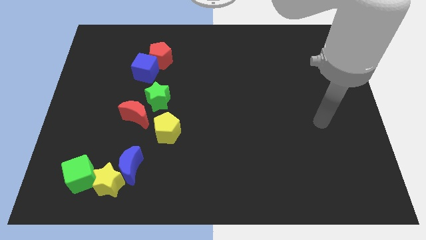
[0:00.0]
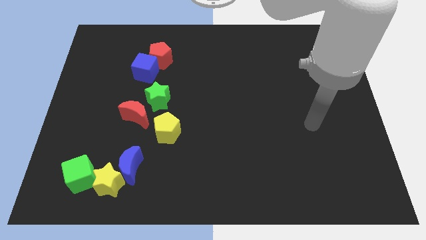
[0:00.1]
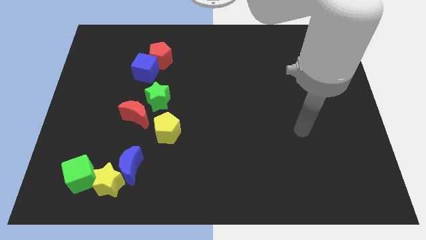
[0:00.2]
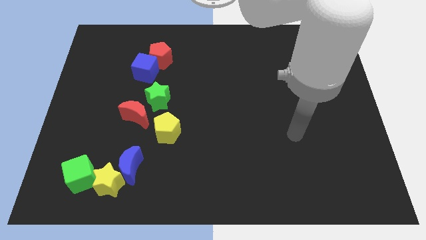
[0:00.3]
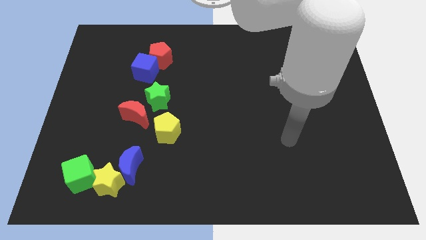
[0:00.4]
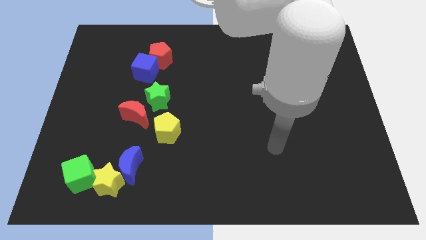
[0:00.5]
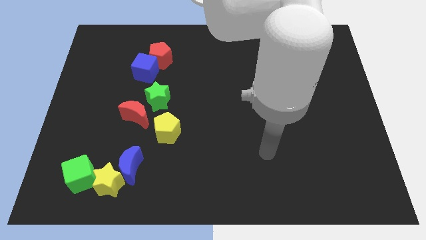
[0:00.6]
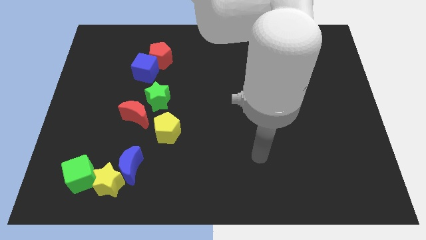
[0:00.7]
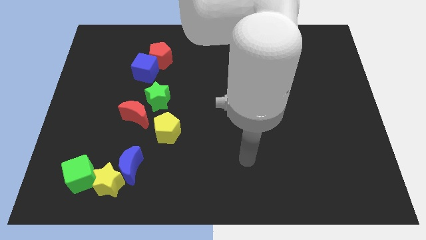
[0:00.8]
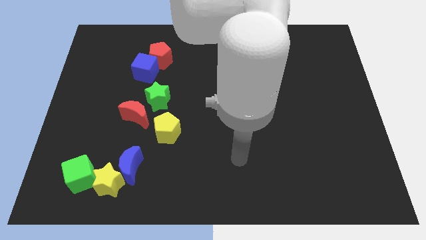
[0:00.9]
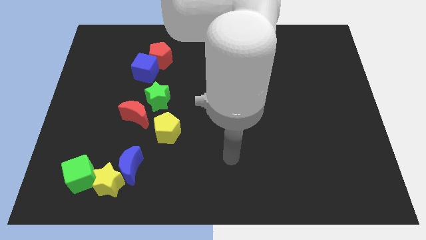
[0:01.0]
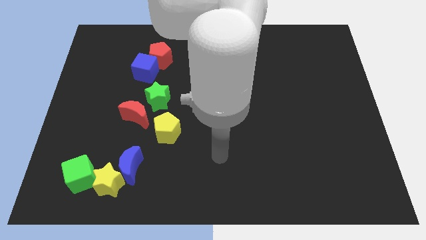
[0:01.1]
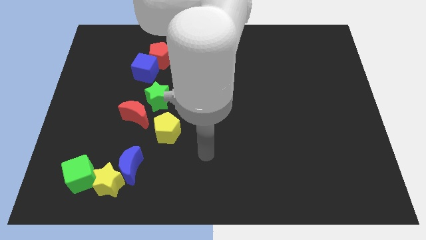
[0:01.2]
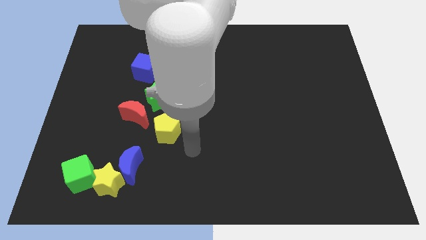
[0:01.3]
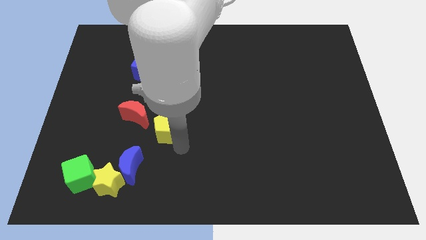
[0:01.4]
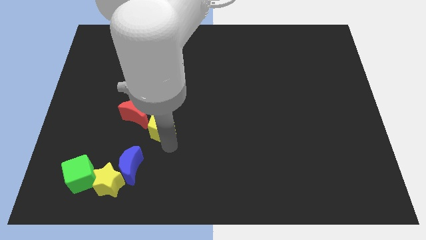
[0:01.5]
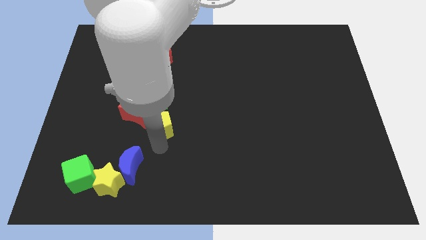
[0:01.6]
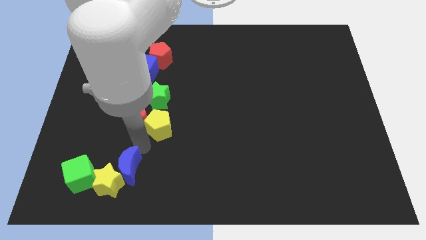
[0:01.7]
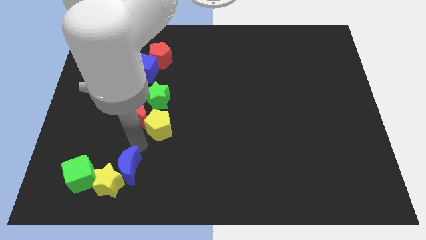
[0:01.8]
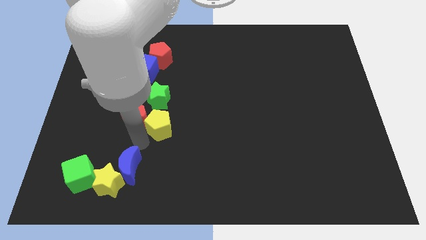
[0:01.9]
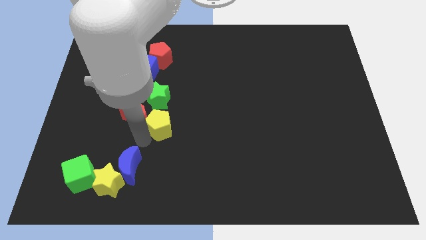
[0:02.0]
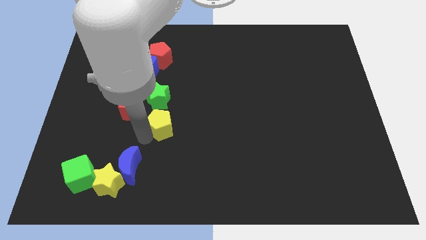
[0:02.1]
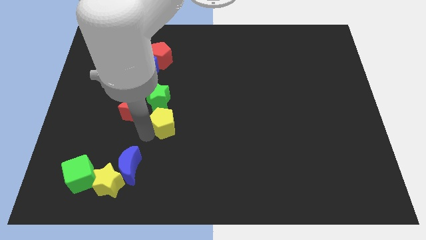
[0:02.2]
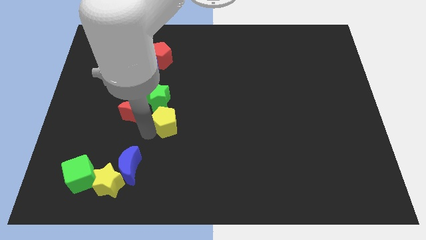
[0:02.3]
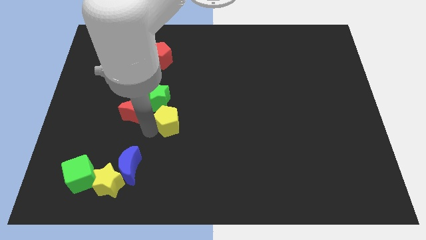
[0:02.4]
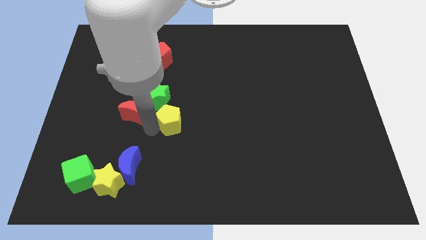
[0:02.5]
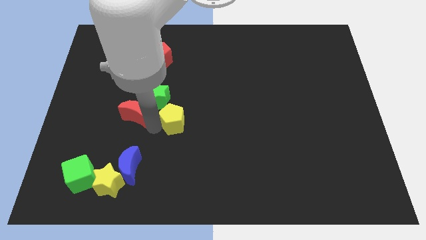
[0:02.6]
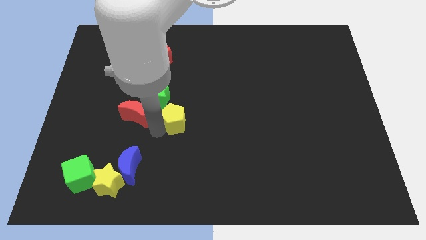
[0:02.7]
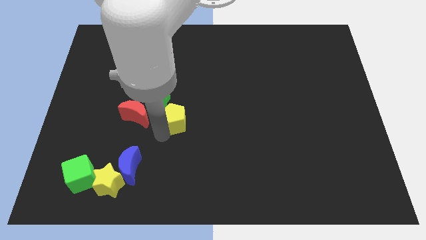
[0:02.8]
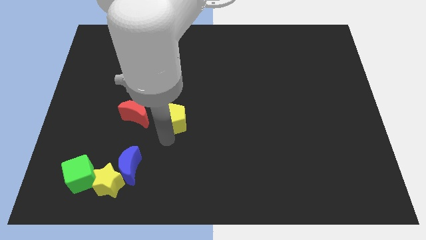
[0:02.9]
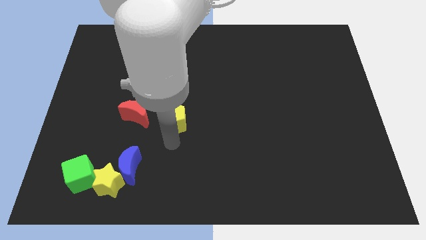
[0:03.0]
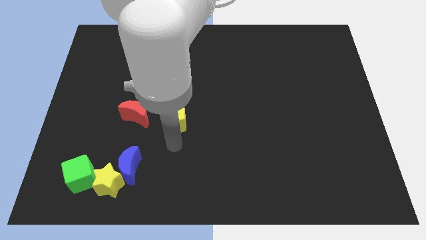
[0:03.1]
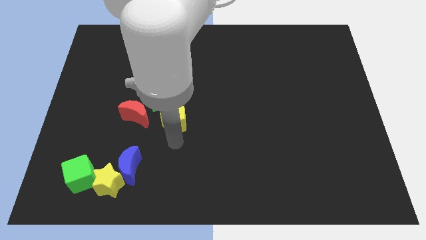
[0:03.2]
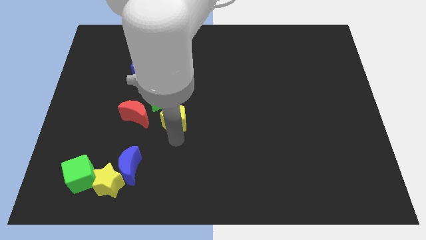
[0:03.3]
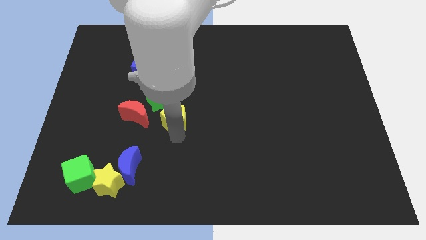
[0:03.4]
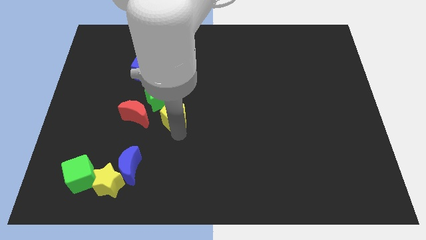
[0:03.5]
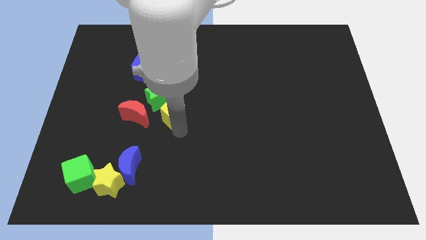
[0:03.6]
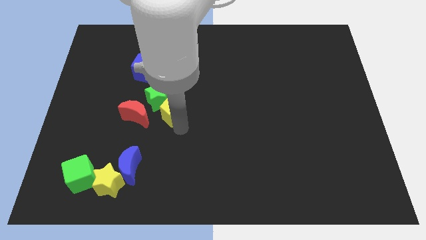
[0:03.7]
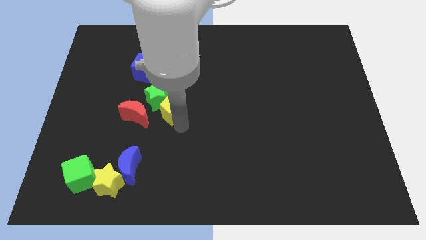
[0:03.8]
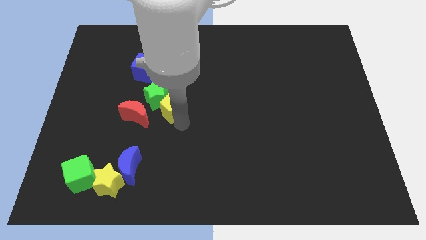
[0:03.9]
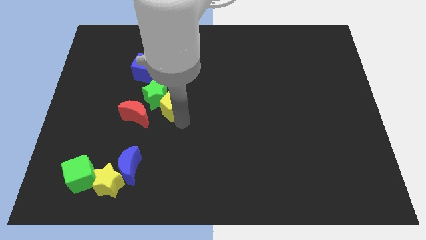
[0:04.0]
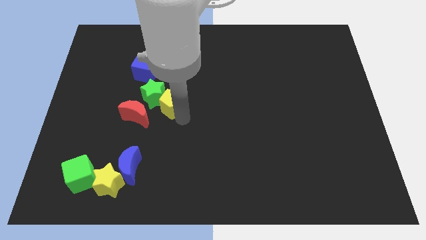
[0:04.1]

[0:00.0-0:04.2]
push the yellow pentagon upwards a little bit

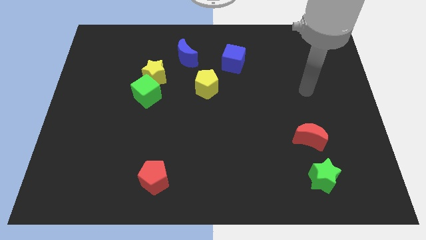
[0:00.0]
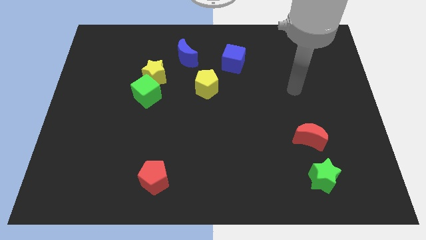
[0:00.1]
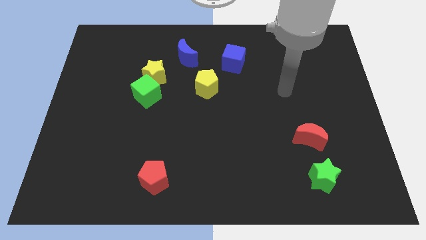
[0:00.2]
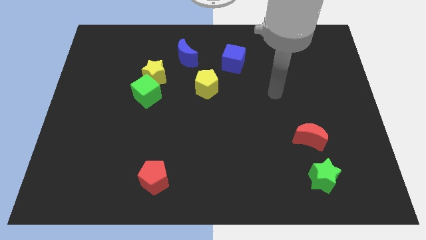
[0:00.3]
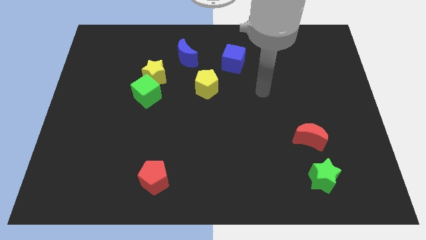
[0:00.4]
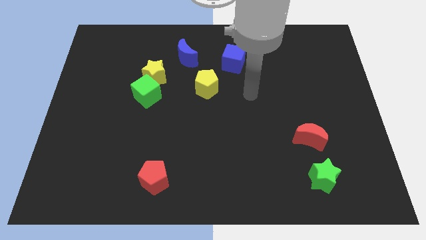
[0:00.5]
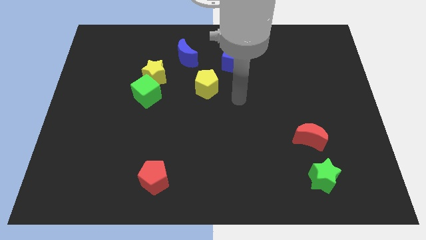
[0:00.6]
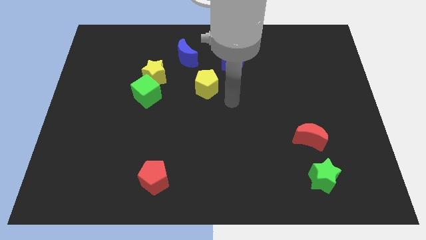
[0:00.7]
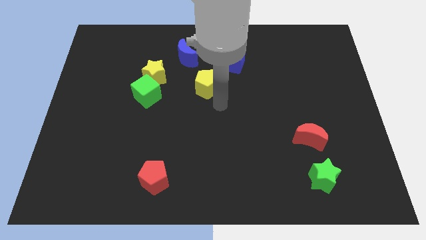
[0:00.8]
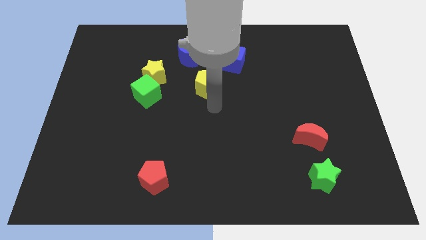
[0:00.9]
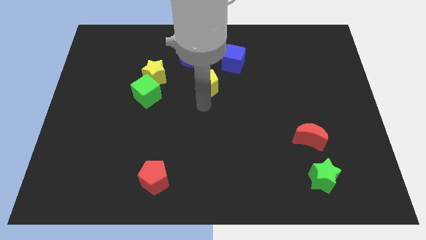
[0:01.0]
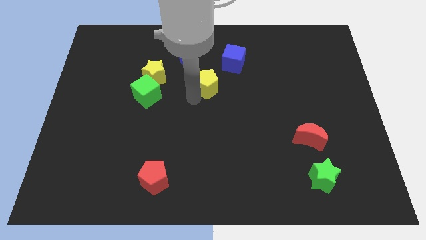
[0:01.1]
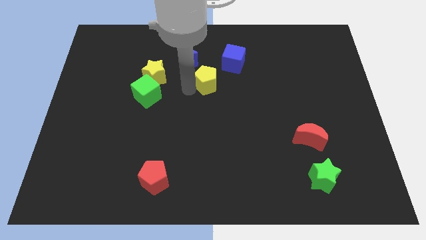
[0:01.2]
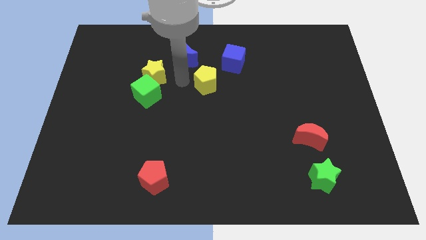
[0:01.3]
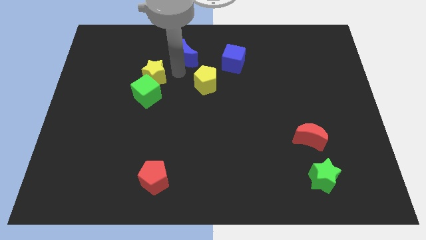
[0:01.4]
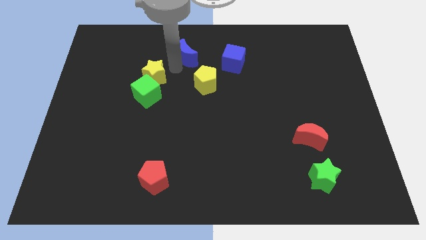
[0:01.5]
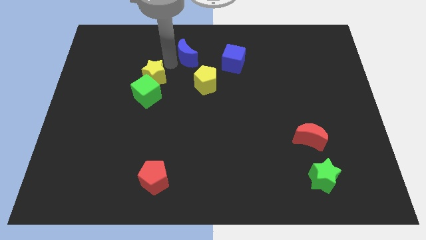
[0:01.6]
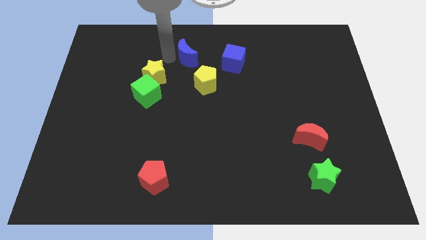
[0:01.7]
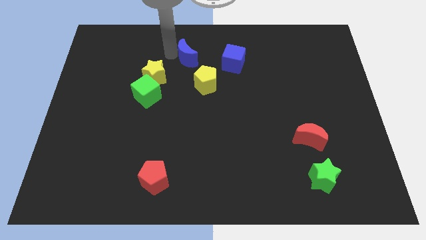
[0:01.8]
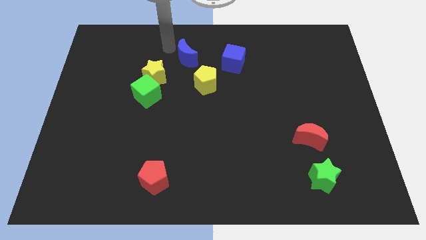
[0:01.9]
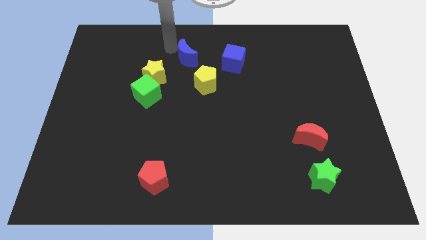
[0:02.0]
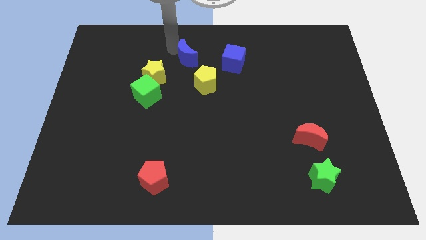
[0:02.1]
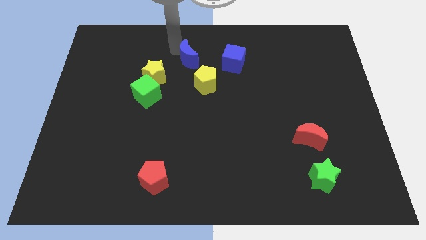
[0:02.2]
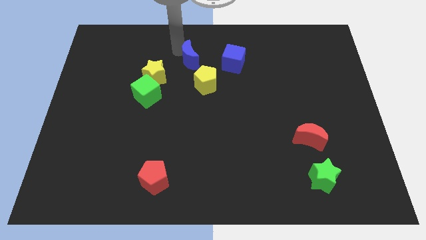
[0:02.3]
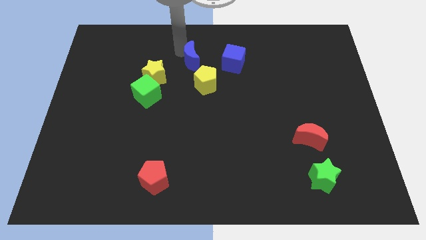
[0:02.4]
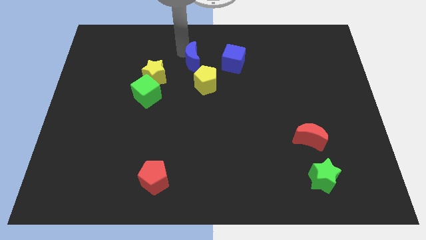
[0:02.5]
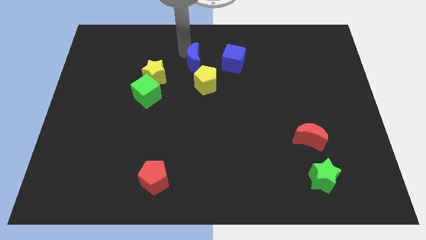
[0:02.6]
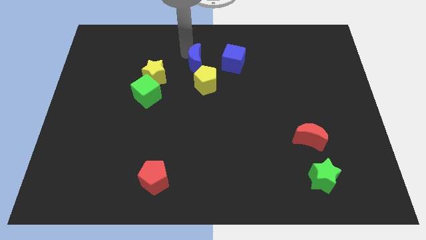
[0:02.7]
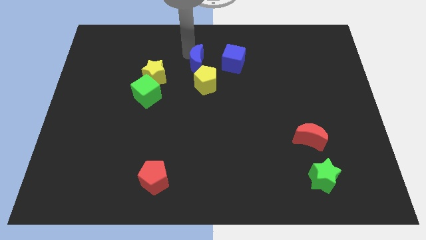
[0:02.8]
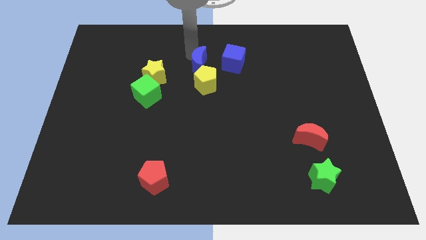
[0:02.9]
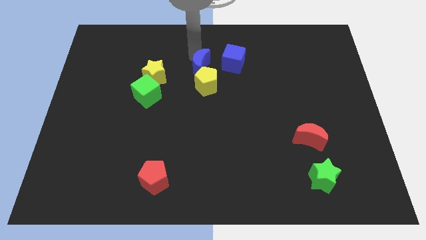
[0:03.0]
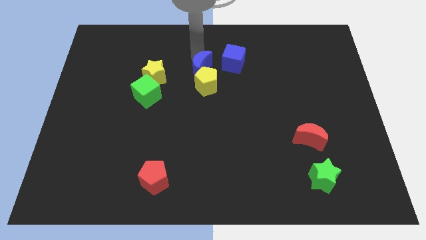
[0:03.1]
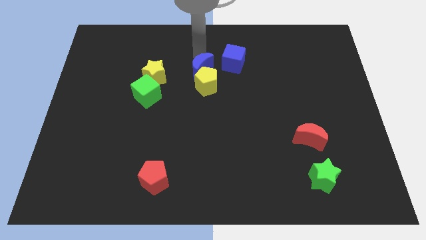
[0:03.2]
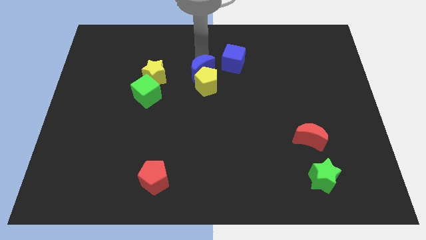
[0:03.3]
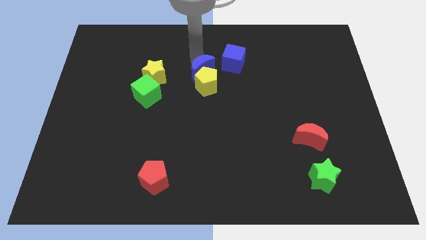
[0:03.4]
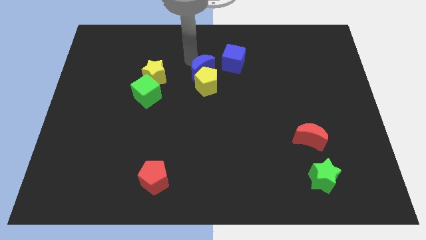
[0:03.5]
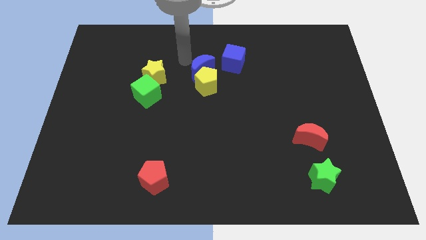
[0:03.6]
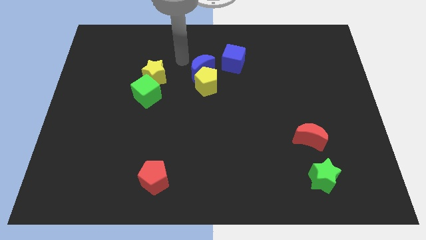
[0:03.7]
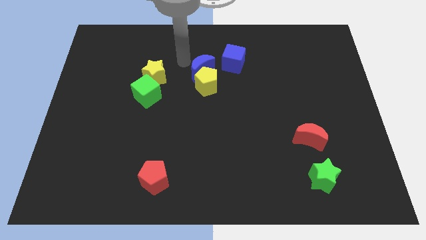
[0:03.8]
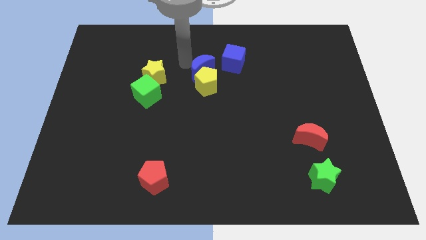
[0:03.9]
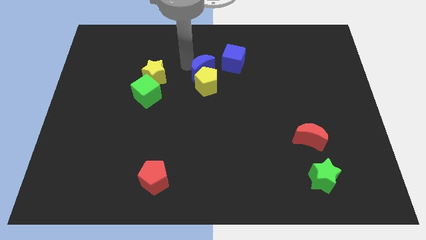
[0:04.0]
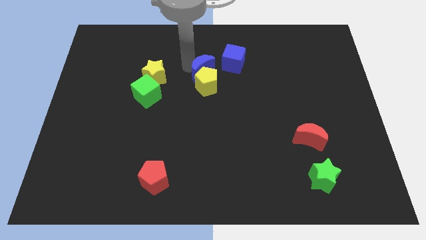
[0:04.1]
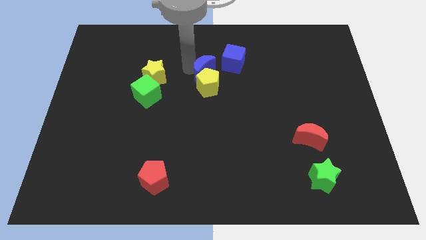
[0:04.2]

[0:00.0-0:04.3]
move the blue moon a little down and to the right
